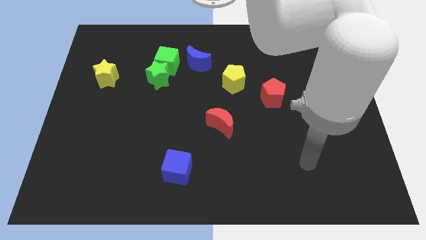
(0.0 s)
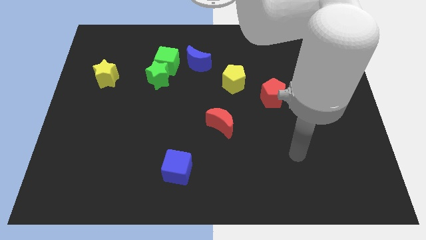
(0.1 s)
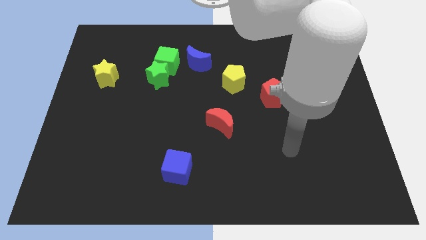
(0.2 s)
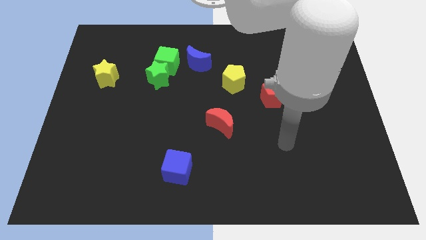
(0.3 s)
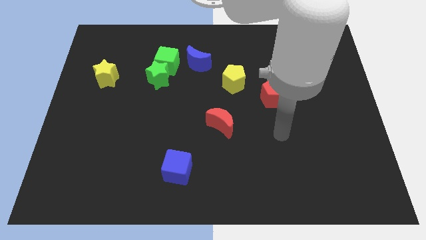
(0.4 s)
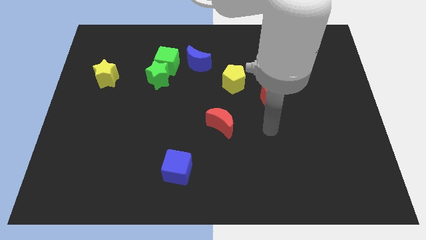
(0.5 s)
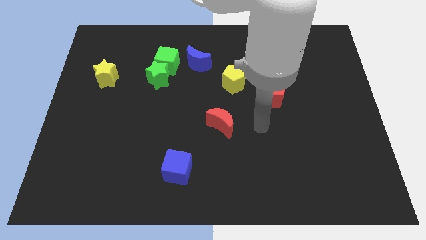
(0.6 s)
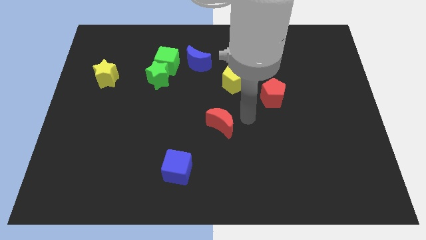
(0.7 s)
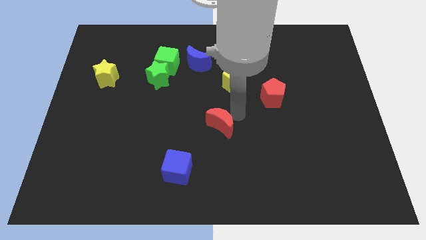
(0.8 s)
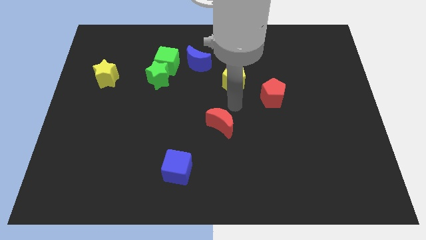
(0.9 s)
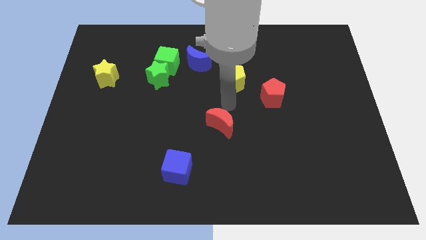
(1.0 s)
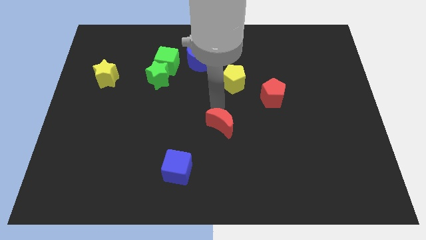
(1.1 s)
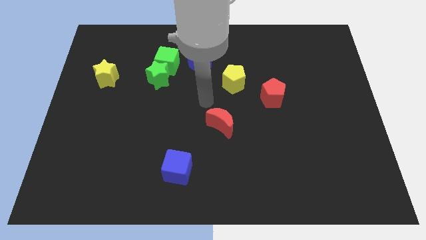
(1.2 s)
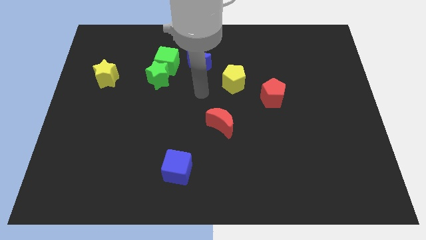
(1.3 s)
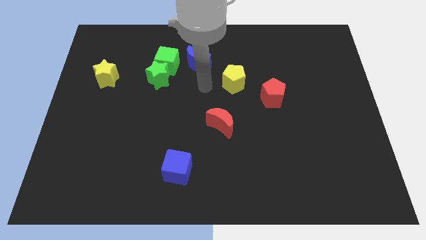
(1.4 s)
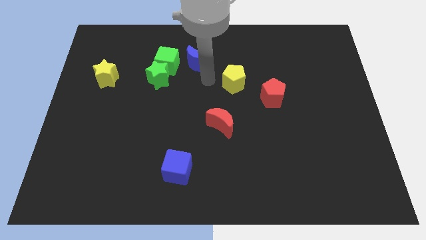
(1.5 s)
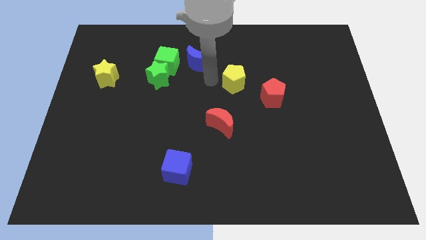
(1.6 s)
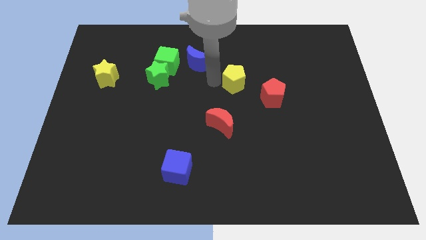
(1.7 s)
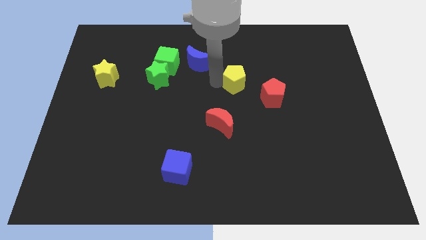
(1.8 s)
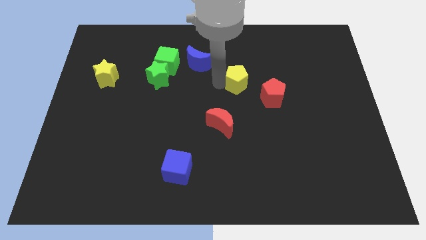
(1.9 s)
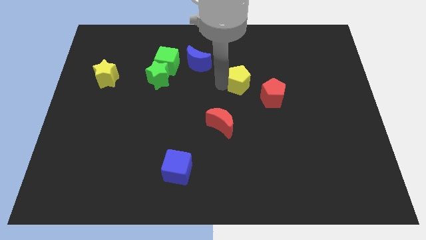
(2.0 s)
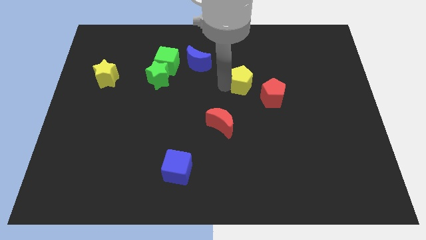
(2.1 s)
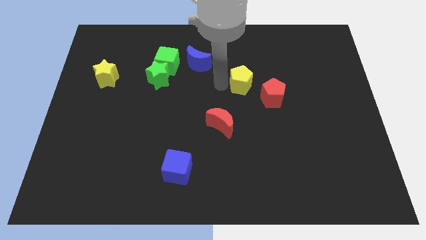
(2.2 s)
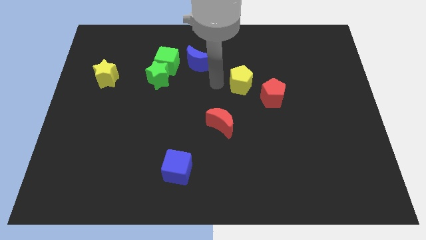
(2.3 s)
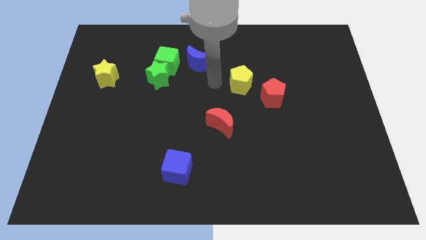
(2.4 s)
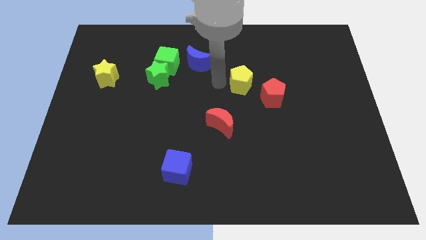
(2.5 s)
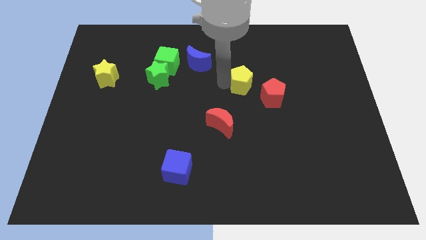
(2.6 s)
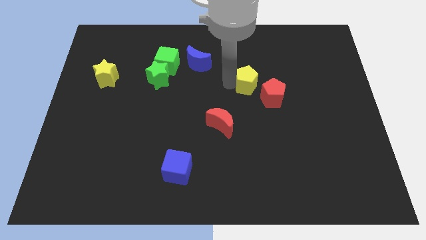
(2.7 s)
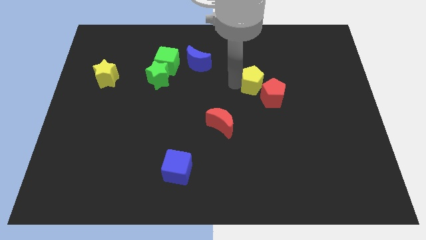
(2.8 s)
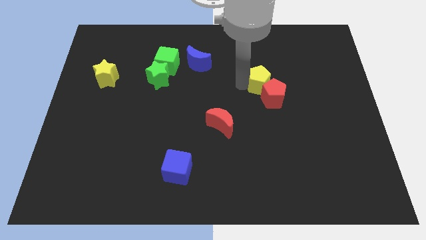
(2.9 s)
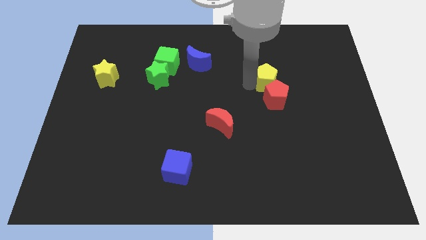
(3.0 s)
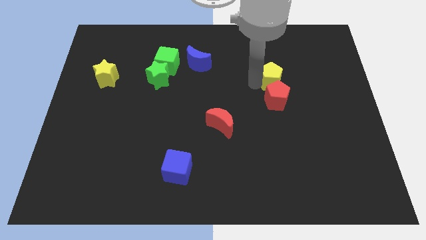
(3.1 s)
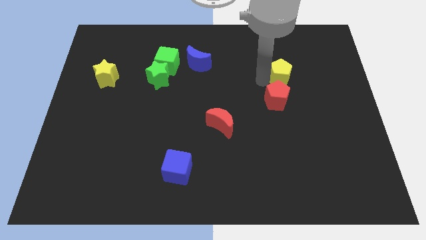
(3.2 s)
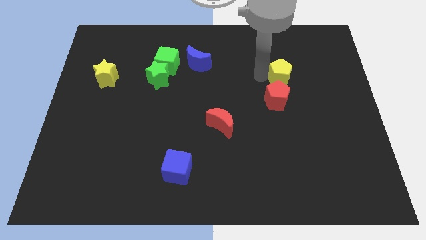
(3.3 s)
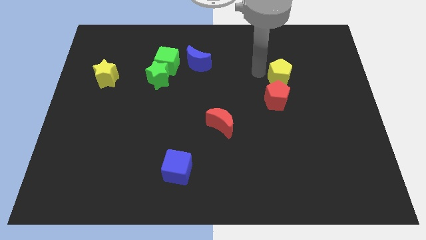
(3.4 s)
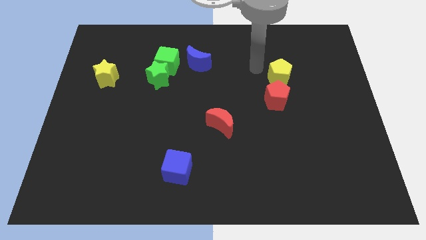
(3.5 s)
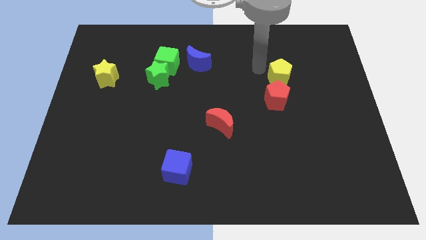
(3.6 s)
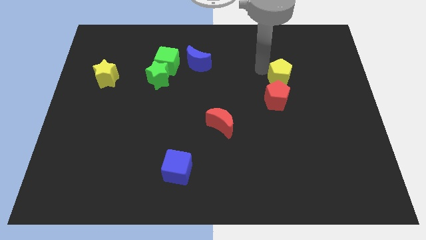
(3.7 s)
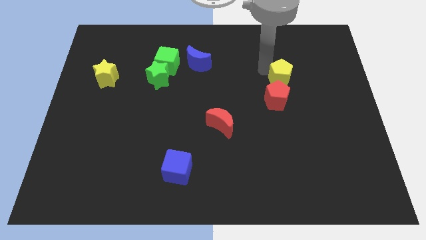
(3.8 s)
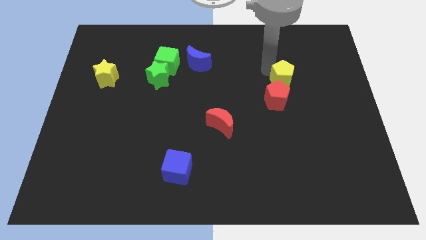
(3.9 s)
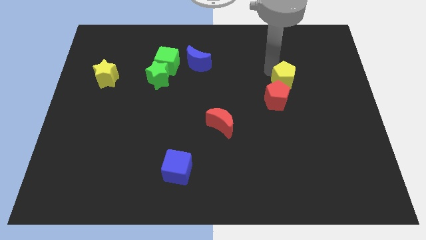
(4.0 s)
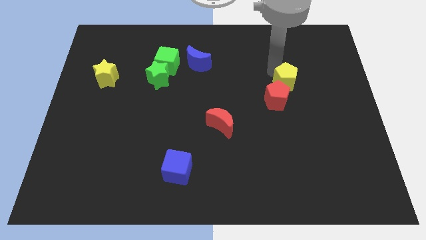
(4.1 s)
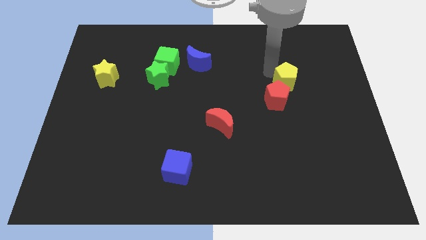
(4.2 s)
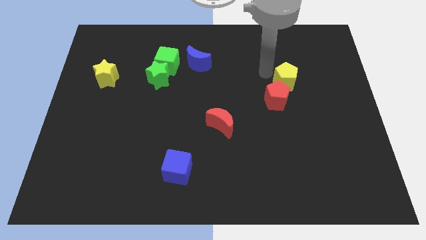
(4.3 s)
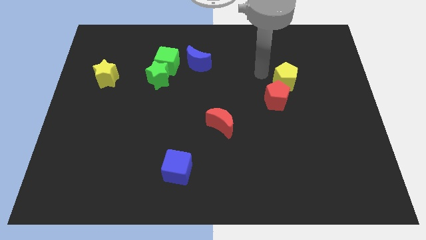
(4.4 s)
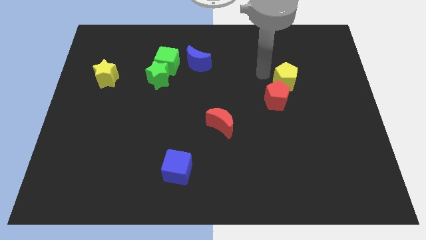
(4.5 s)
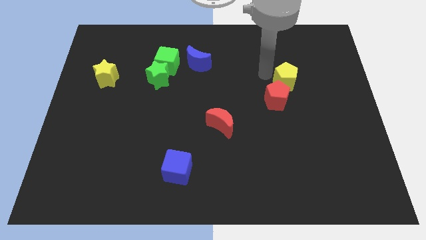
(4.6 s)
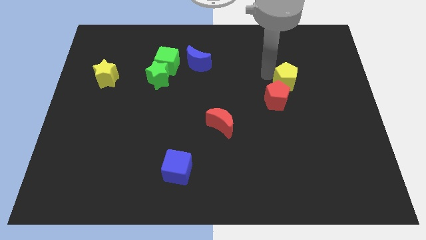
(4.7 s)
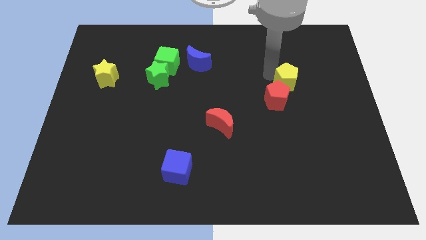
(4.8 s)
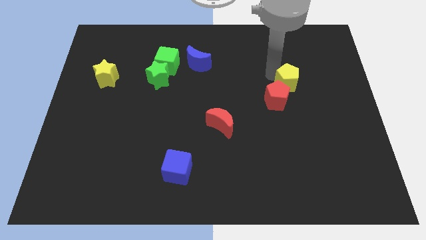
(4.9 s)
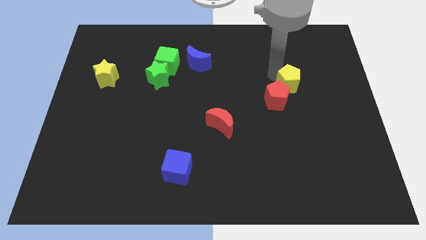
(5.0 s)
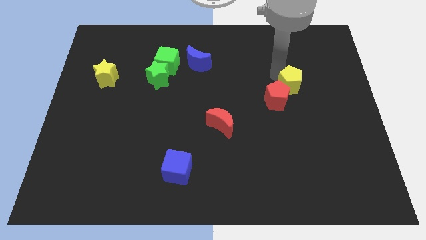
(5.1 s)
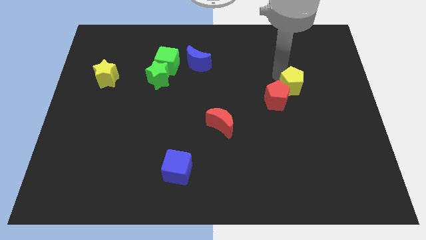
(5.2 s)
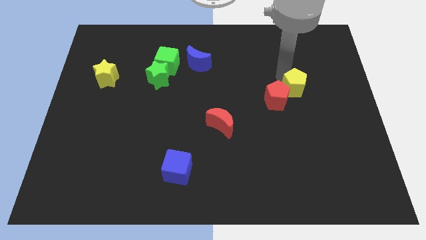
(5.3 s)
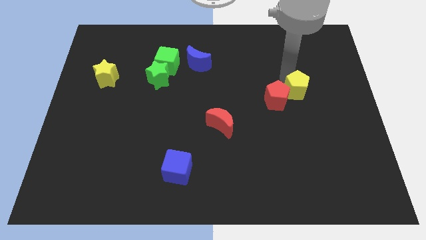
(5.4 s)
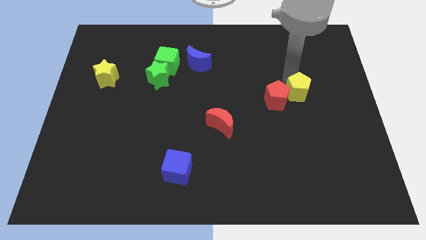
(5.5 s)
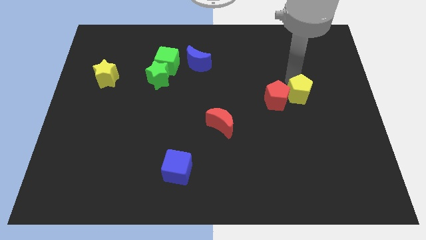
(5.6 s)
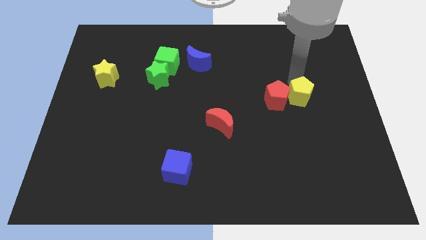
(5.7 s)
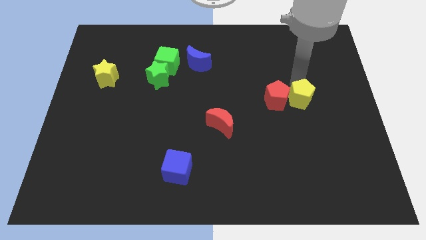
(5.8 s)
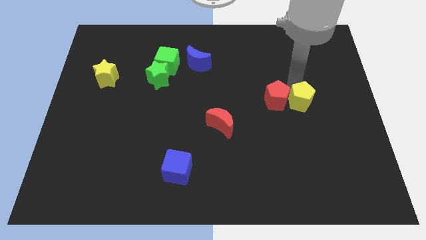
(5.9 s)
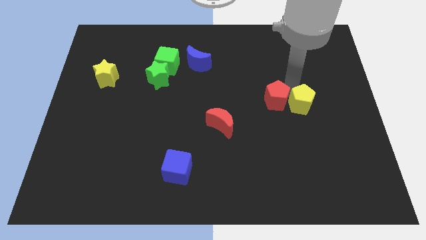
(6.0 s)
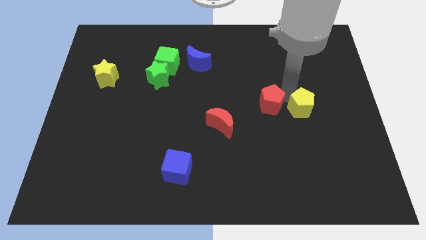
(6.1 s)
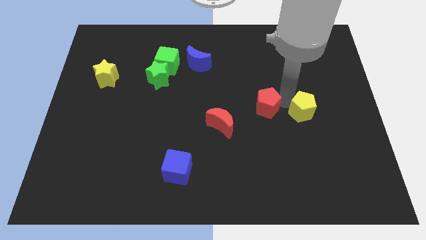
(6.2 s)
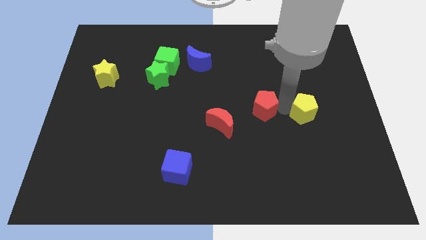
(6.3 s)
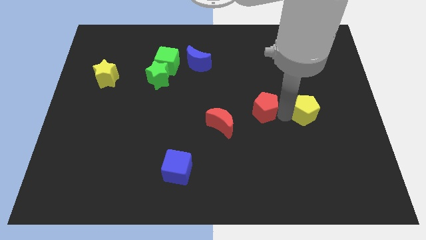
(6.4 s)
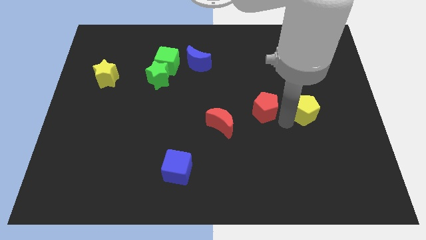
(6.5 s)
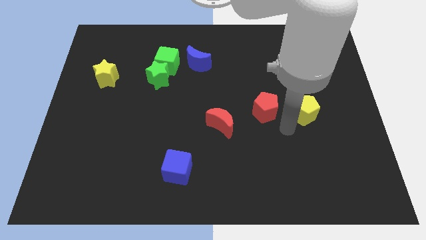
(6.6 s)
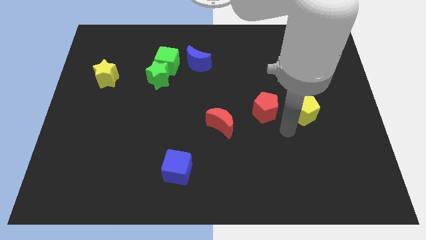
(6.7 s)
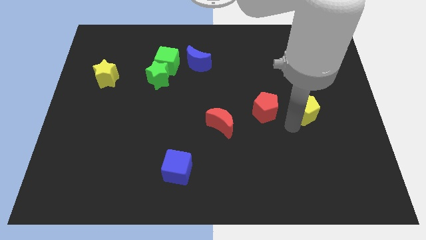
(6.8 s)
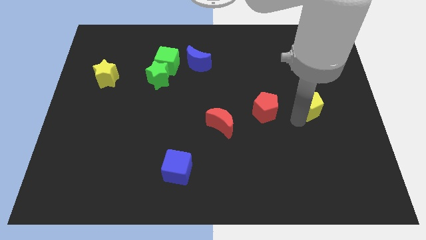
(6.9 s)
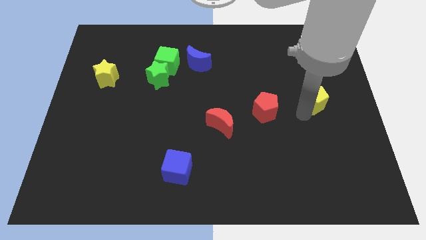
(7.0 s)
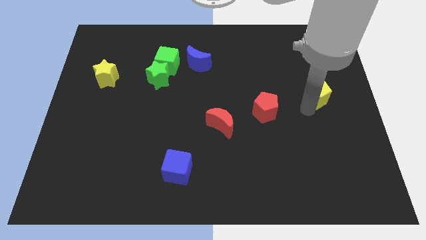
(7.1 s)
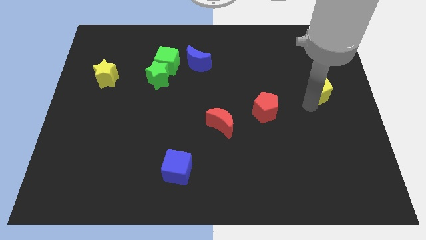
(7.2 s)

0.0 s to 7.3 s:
put the yellow pentagon to the right side of the board
